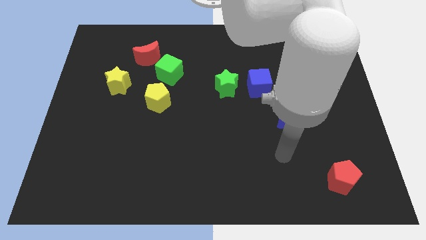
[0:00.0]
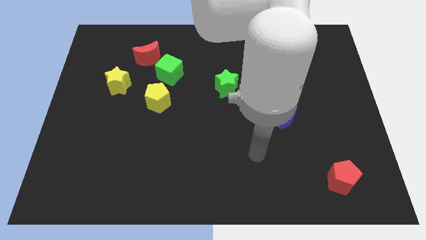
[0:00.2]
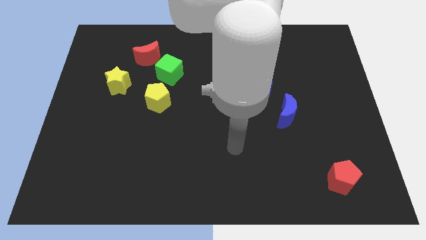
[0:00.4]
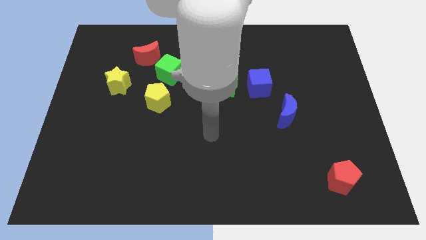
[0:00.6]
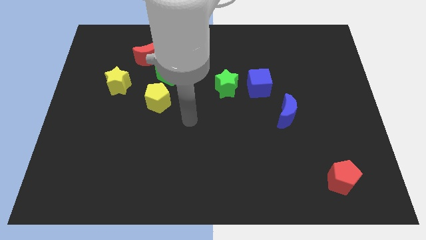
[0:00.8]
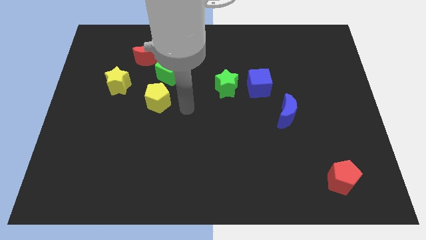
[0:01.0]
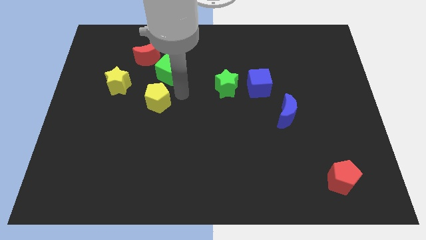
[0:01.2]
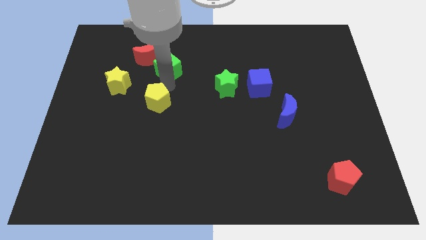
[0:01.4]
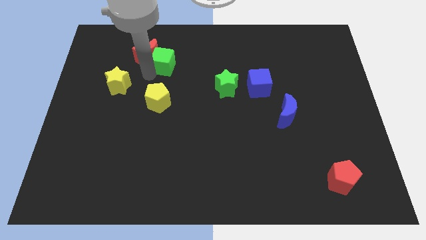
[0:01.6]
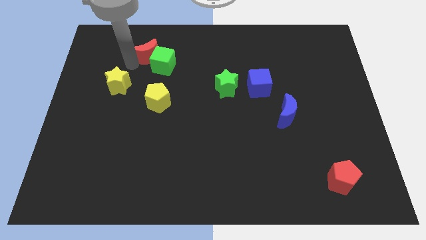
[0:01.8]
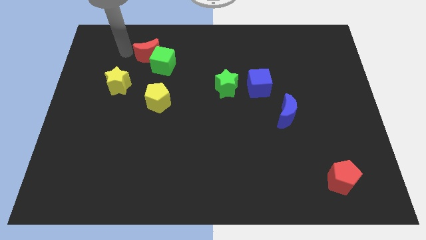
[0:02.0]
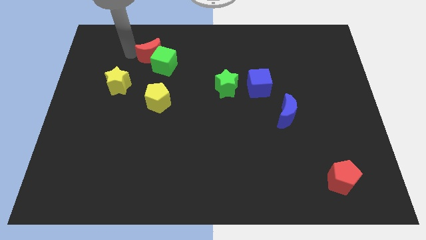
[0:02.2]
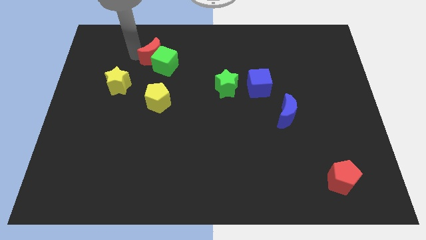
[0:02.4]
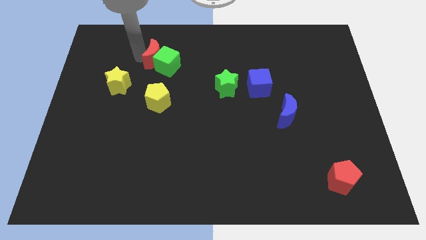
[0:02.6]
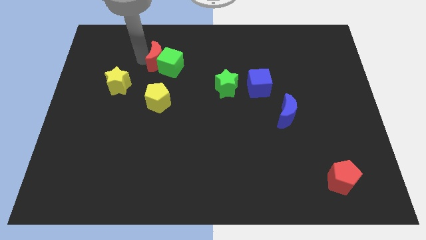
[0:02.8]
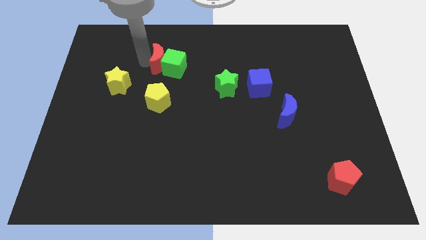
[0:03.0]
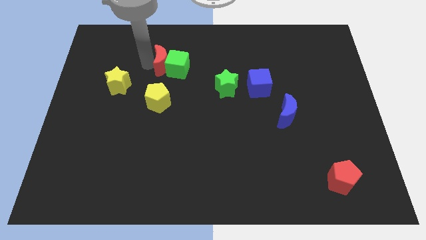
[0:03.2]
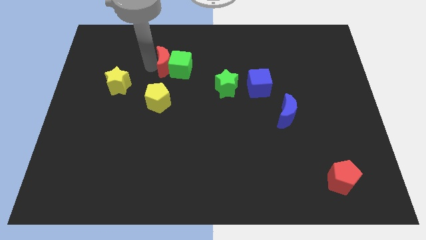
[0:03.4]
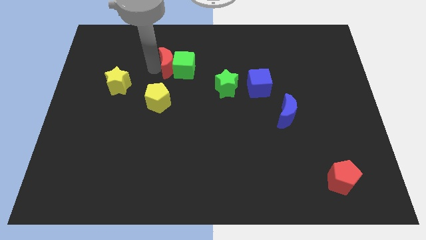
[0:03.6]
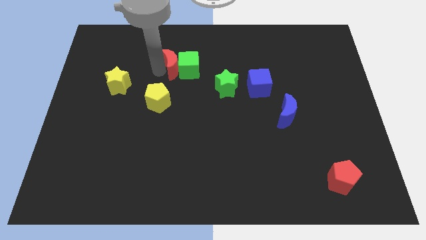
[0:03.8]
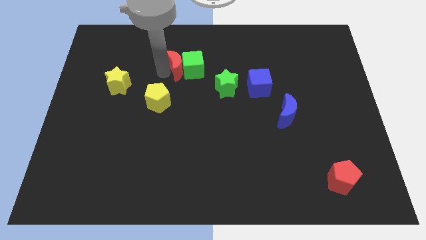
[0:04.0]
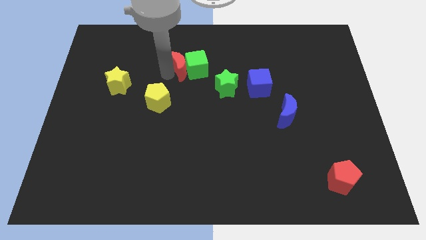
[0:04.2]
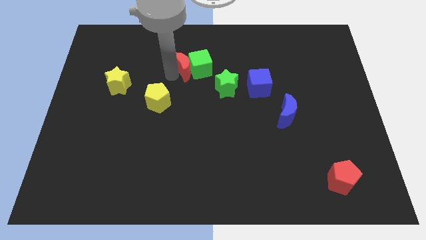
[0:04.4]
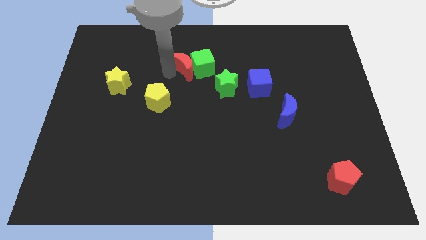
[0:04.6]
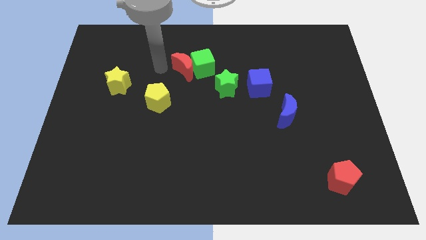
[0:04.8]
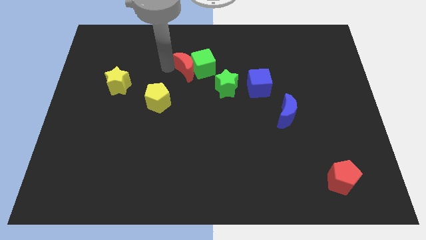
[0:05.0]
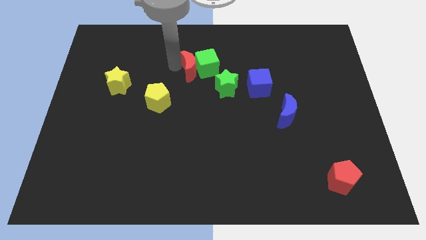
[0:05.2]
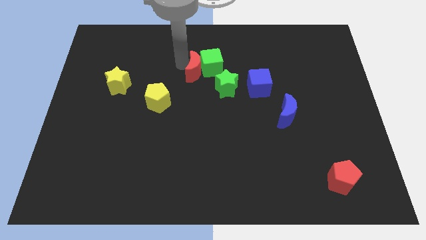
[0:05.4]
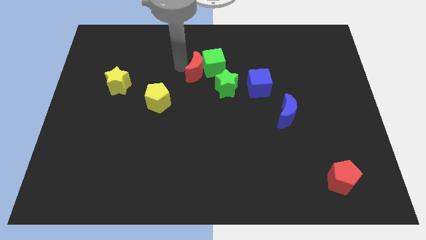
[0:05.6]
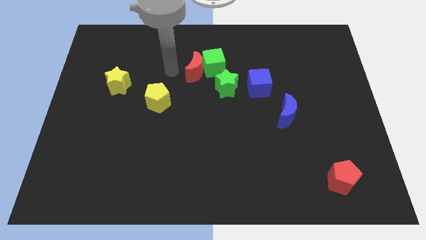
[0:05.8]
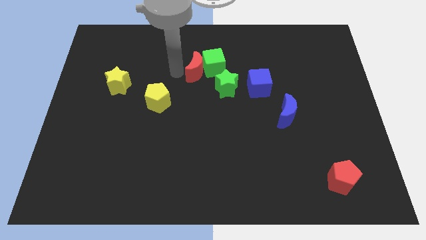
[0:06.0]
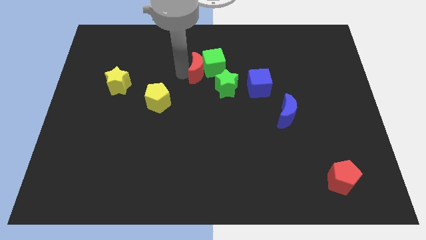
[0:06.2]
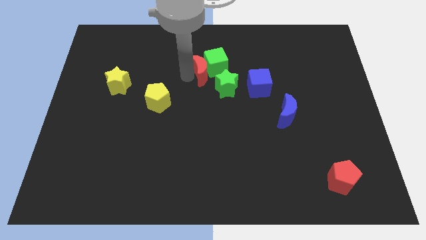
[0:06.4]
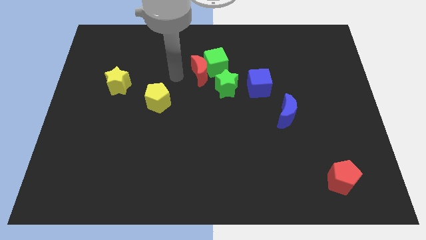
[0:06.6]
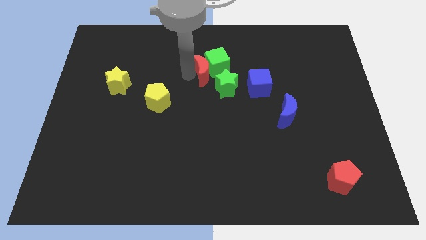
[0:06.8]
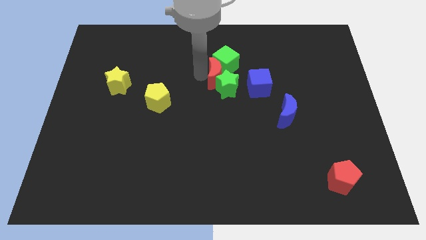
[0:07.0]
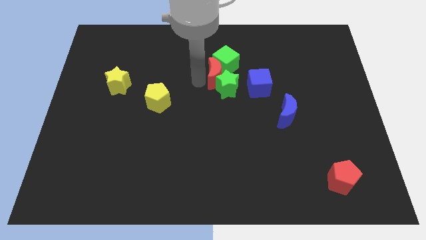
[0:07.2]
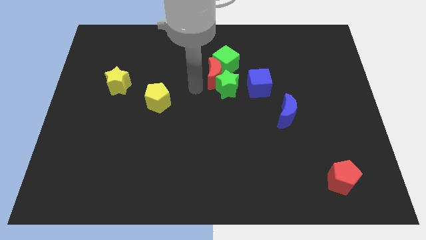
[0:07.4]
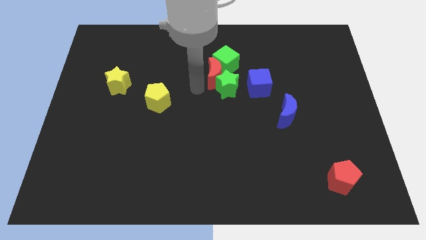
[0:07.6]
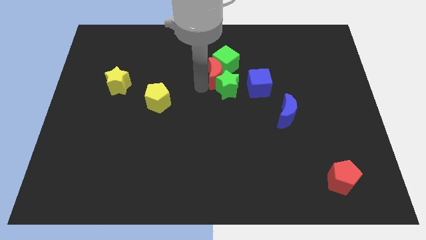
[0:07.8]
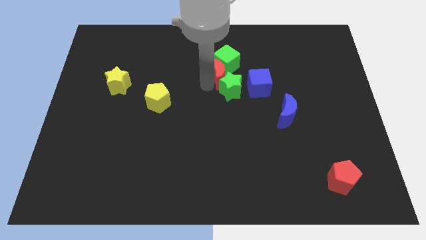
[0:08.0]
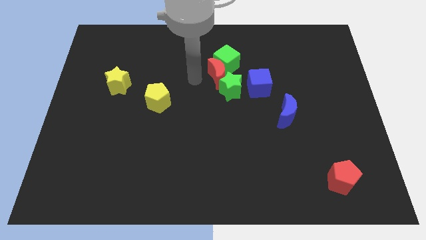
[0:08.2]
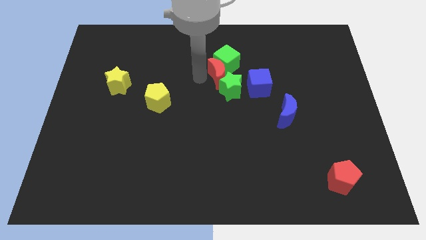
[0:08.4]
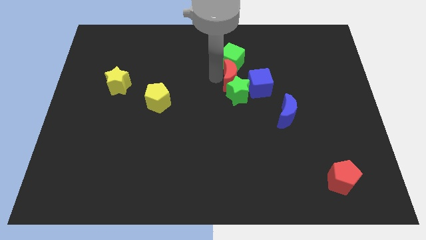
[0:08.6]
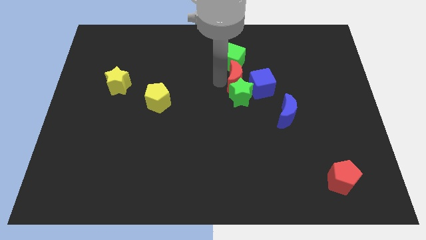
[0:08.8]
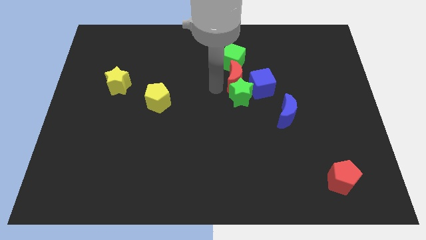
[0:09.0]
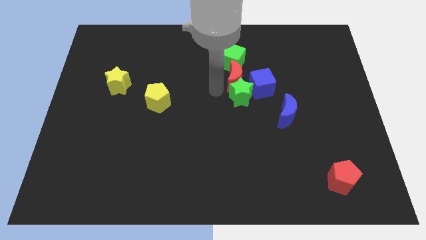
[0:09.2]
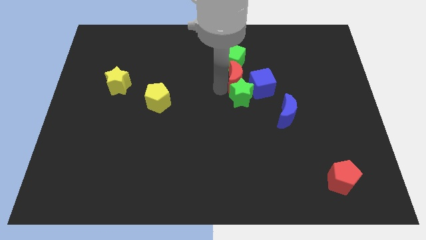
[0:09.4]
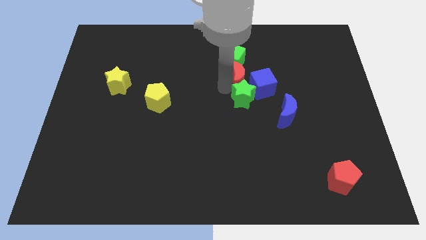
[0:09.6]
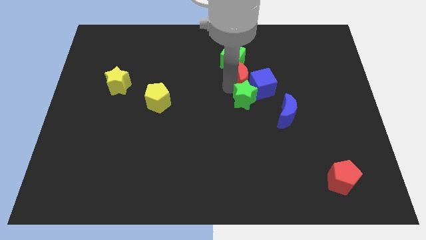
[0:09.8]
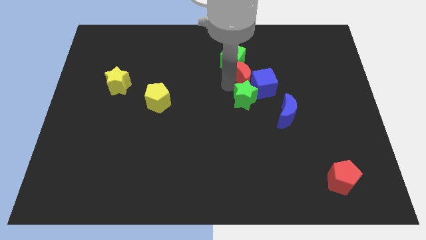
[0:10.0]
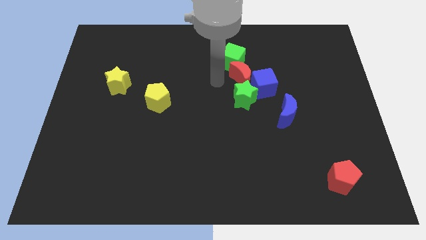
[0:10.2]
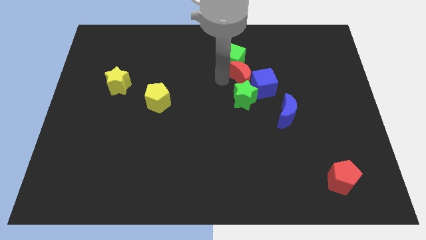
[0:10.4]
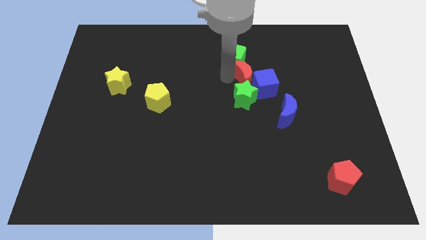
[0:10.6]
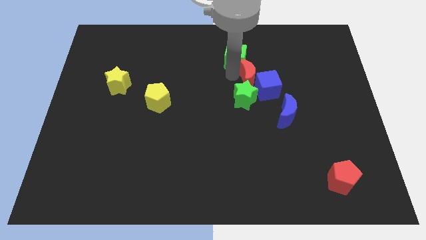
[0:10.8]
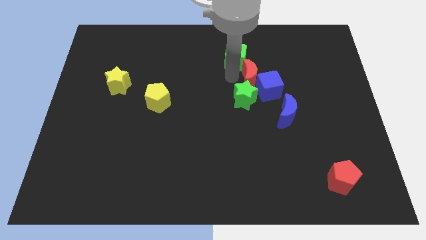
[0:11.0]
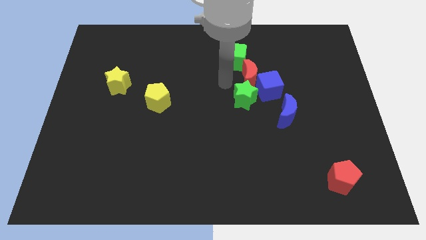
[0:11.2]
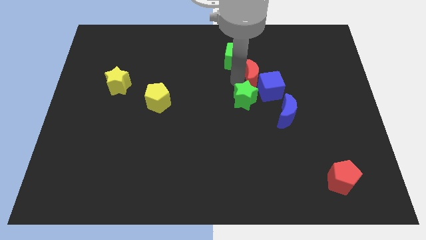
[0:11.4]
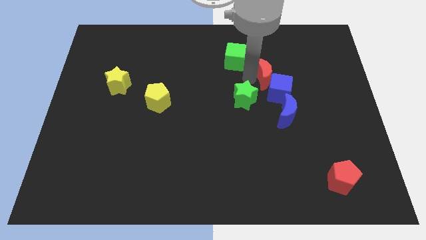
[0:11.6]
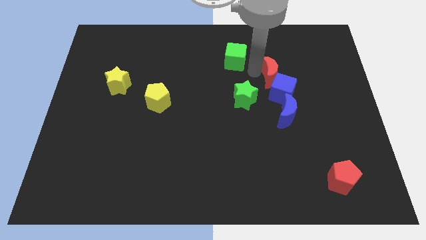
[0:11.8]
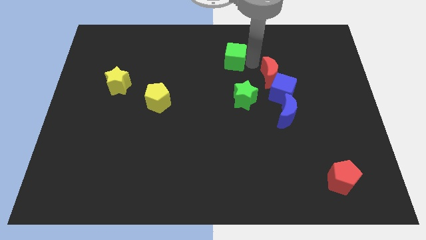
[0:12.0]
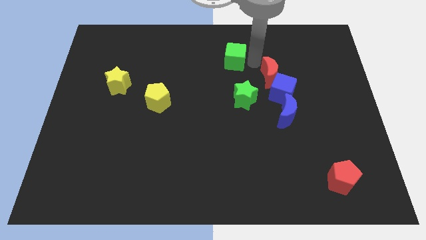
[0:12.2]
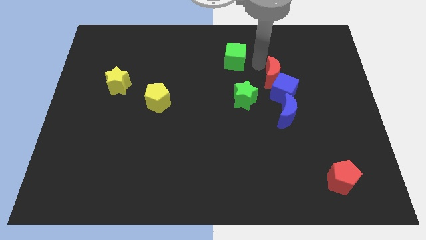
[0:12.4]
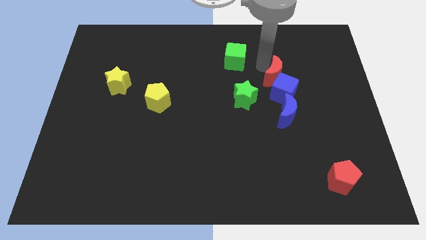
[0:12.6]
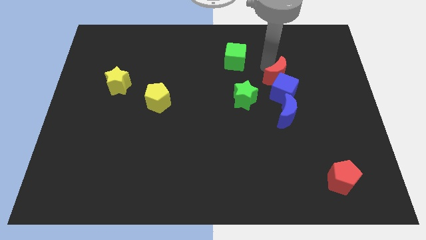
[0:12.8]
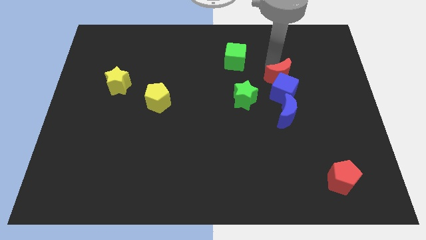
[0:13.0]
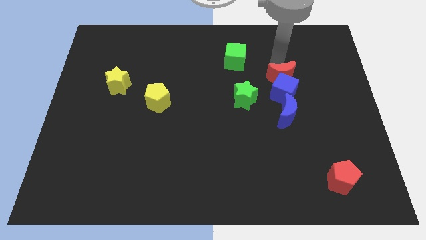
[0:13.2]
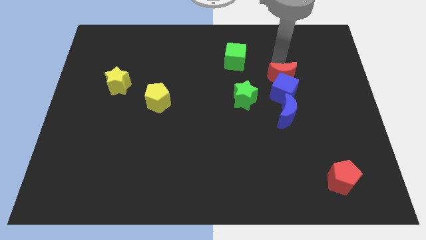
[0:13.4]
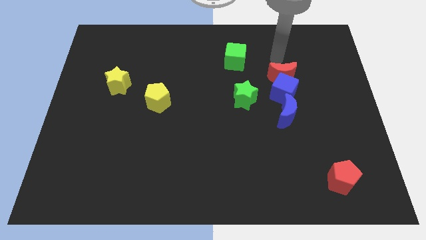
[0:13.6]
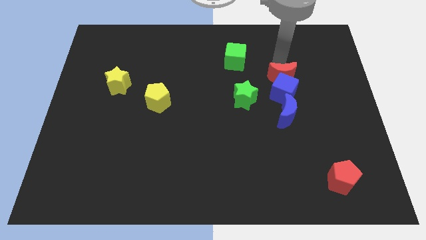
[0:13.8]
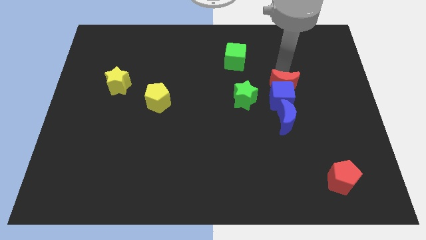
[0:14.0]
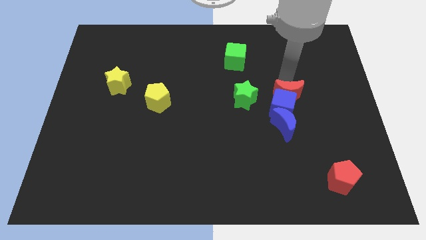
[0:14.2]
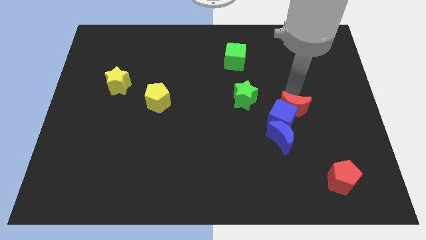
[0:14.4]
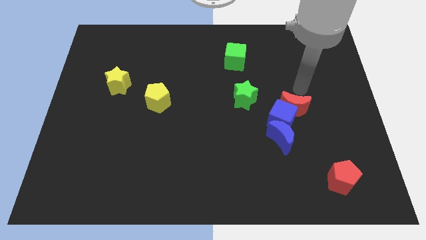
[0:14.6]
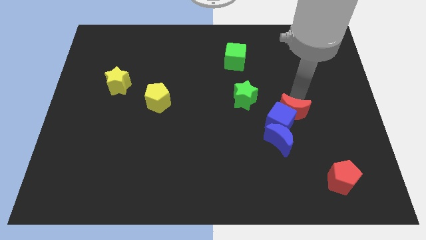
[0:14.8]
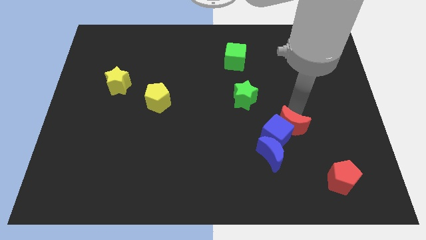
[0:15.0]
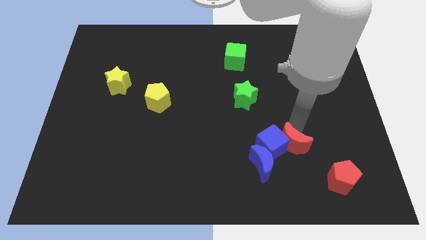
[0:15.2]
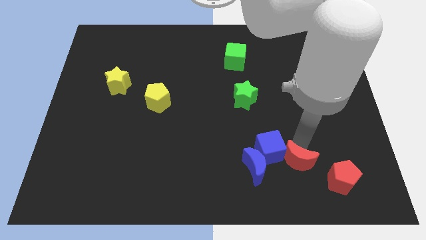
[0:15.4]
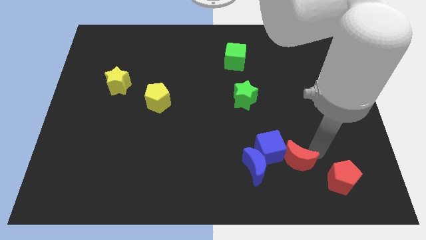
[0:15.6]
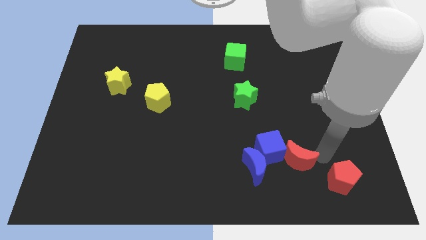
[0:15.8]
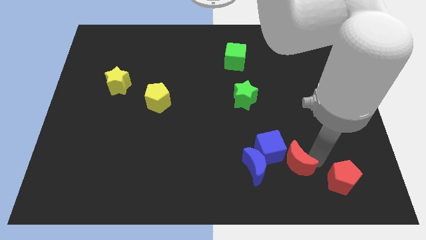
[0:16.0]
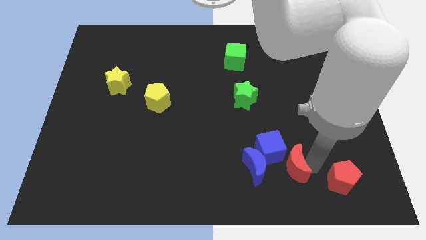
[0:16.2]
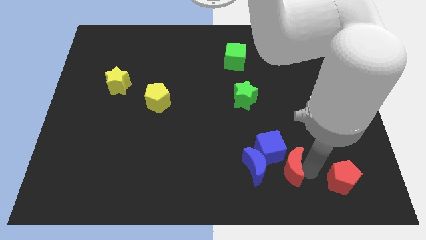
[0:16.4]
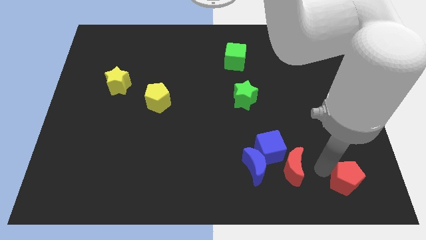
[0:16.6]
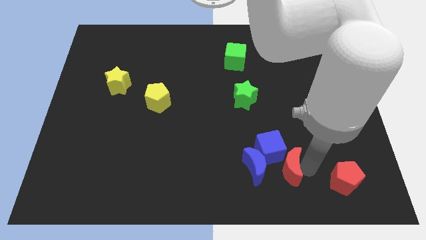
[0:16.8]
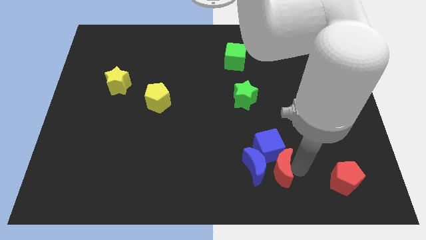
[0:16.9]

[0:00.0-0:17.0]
push the red moon to the blue moon
